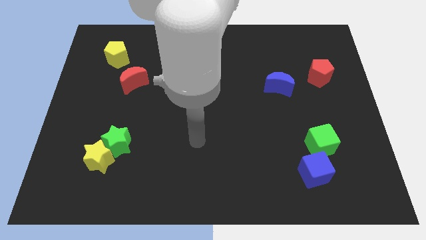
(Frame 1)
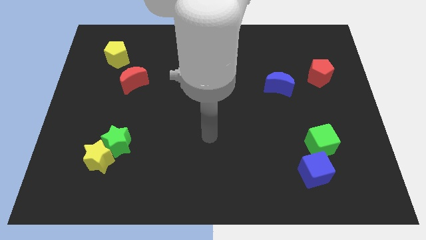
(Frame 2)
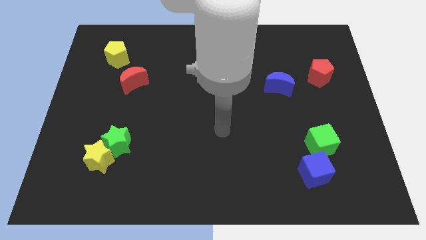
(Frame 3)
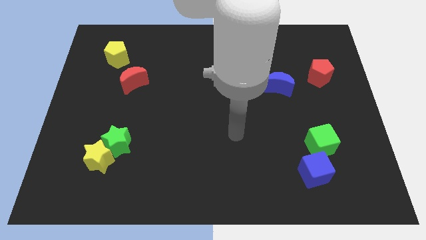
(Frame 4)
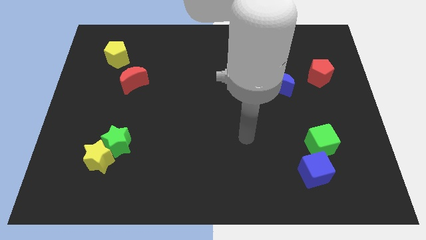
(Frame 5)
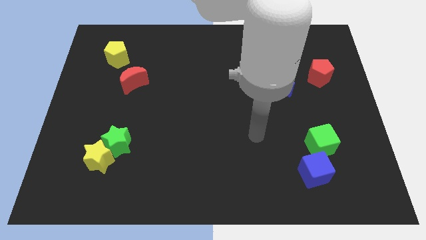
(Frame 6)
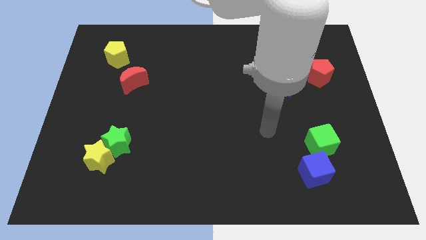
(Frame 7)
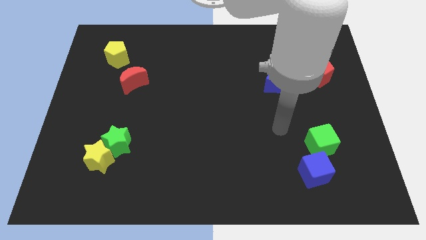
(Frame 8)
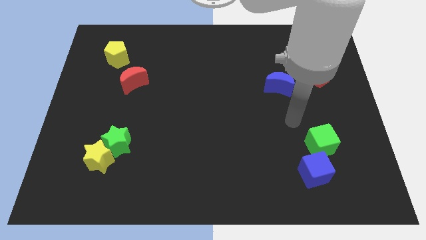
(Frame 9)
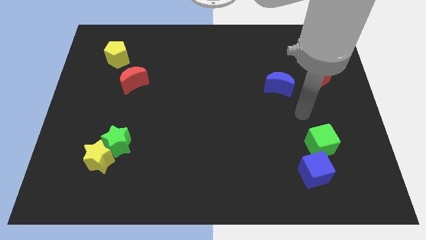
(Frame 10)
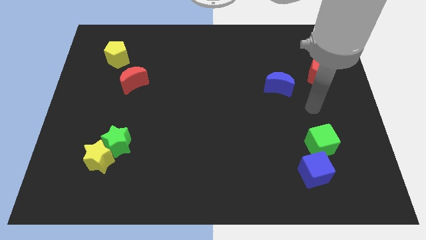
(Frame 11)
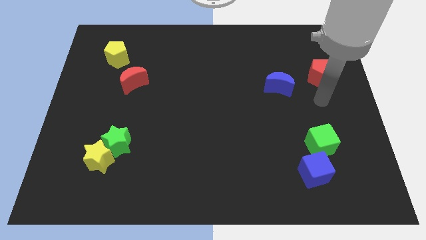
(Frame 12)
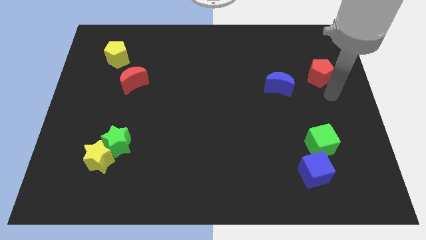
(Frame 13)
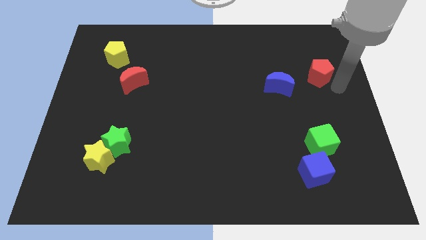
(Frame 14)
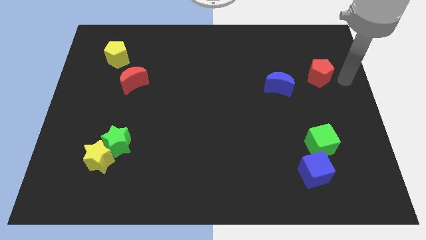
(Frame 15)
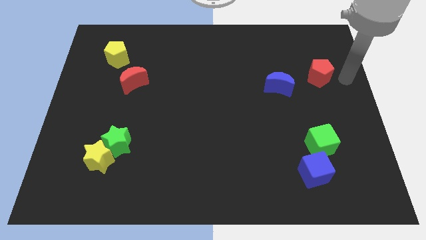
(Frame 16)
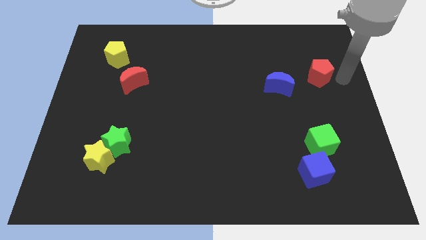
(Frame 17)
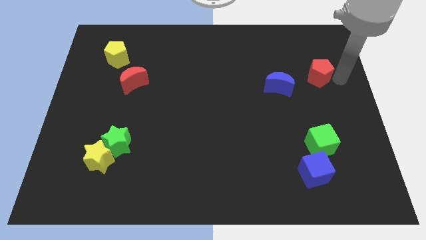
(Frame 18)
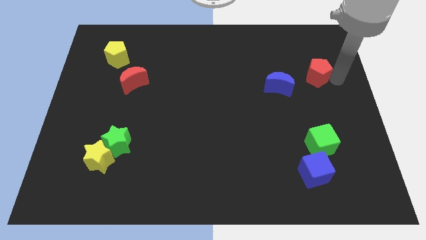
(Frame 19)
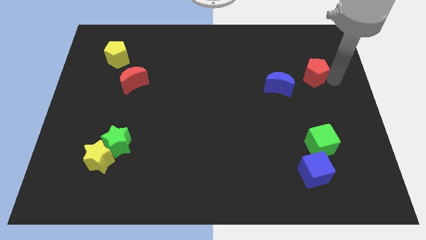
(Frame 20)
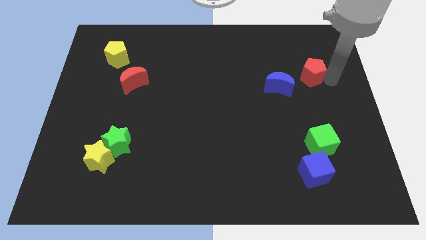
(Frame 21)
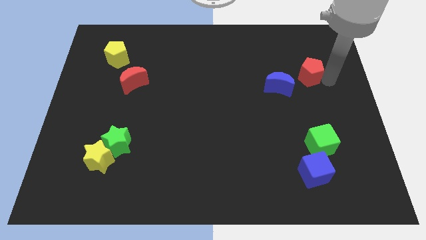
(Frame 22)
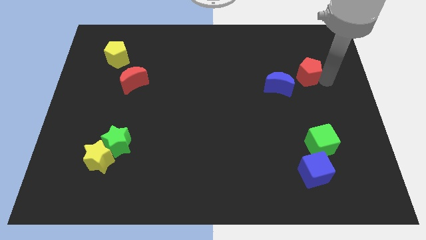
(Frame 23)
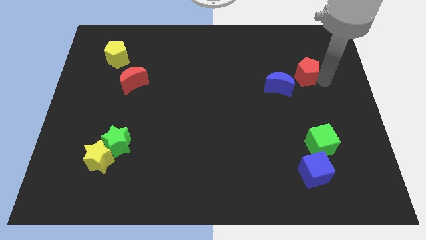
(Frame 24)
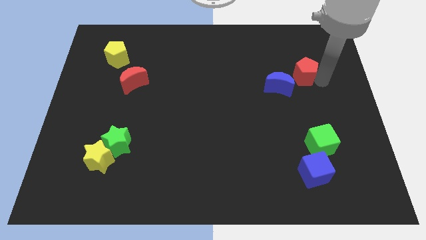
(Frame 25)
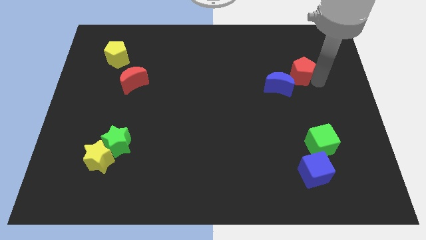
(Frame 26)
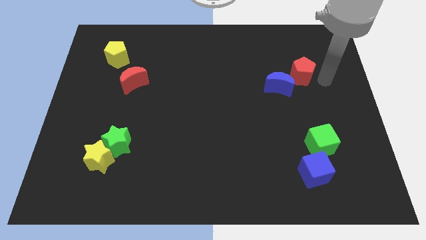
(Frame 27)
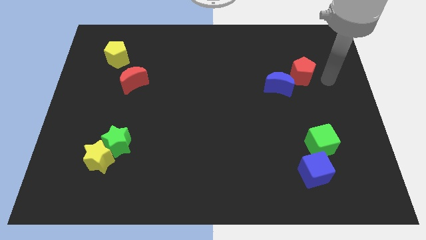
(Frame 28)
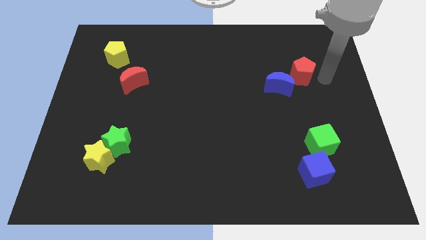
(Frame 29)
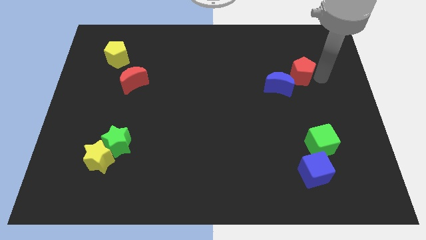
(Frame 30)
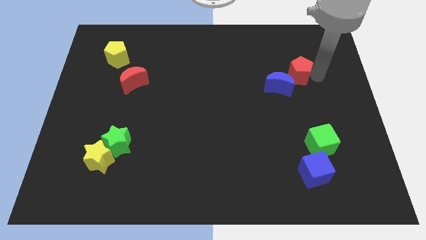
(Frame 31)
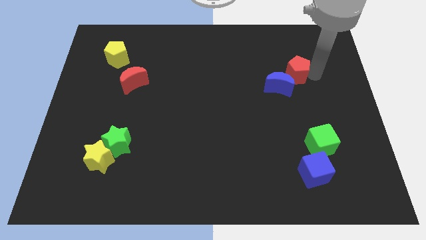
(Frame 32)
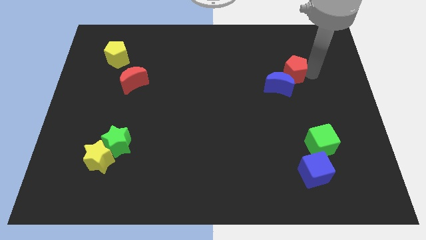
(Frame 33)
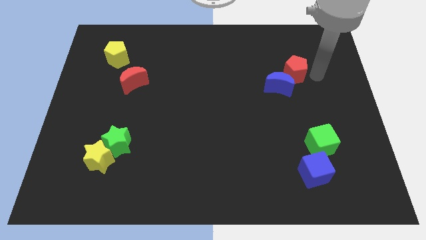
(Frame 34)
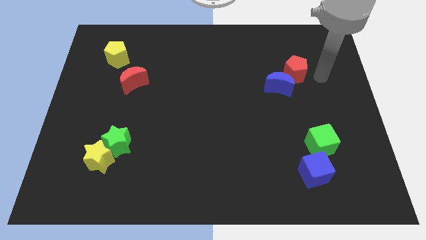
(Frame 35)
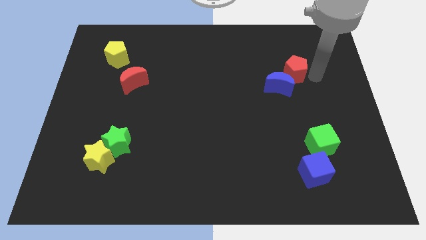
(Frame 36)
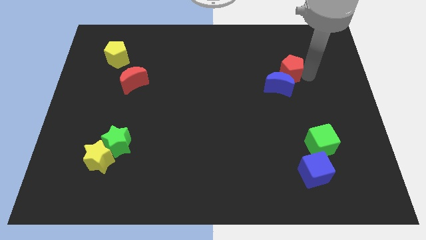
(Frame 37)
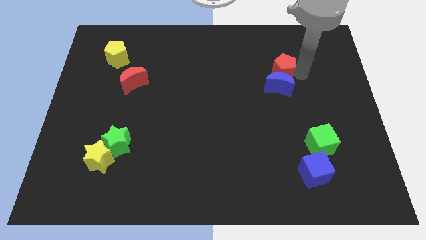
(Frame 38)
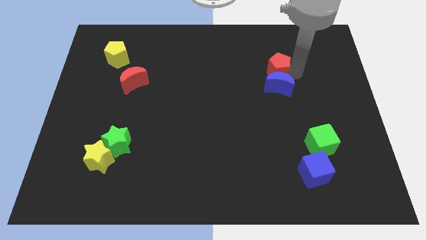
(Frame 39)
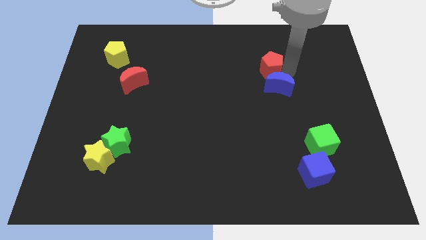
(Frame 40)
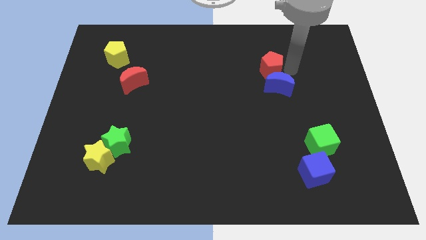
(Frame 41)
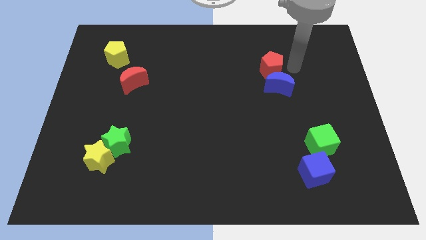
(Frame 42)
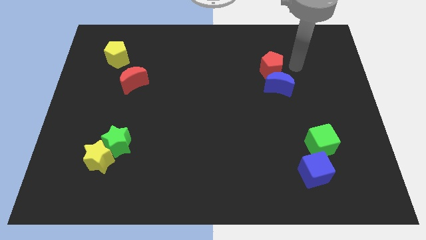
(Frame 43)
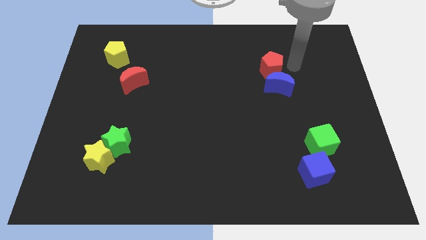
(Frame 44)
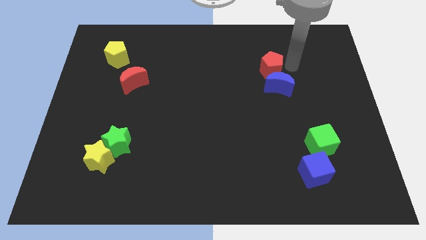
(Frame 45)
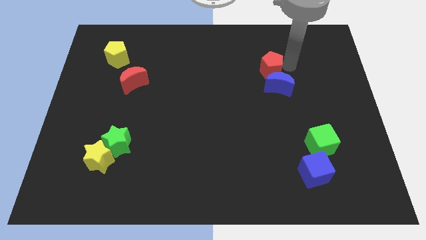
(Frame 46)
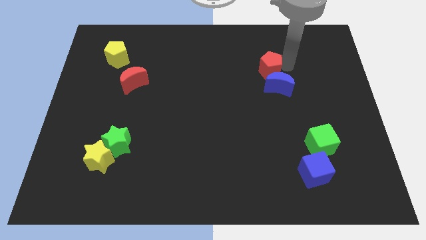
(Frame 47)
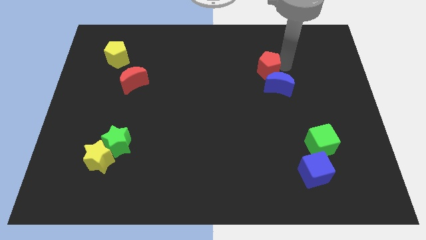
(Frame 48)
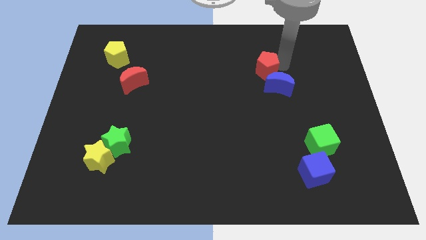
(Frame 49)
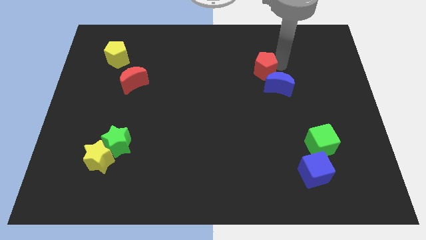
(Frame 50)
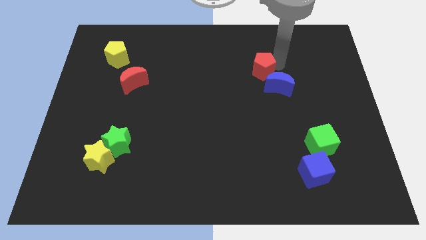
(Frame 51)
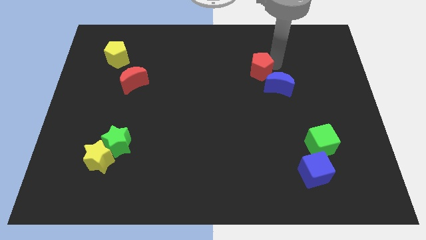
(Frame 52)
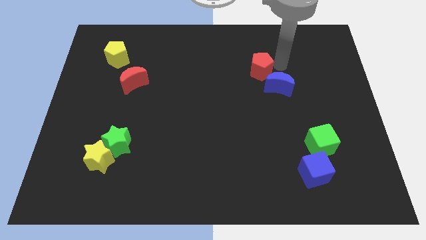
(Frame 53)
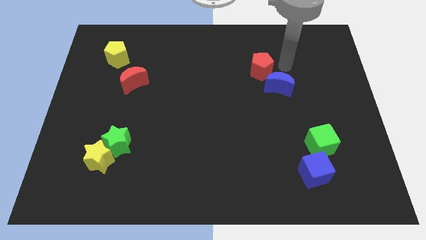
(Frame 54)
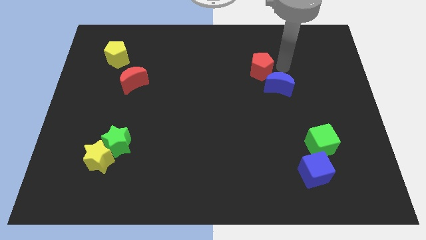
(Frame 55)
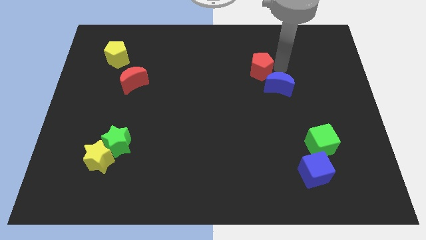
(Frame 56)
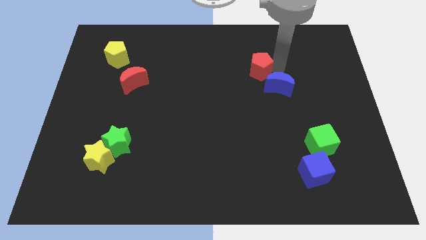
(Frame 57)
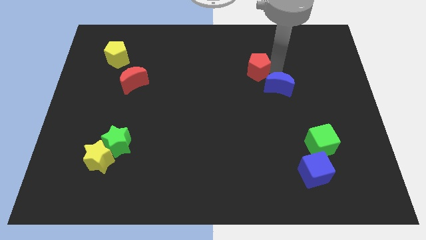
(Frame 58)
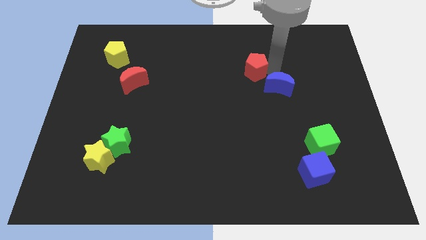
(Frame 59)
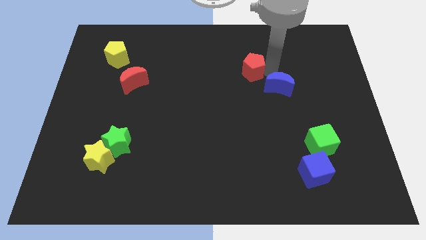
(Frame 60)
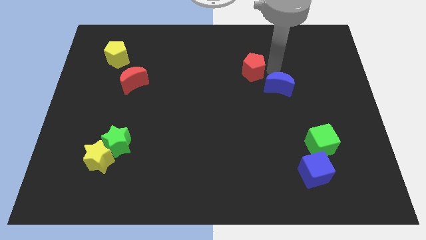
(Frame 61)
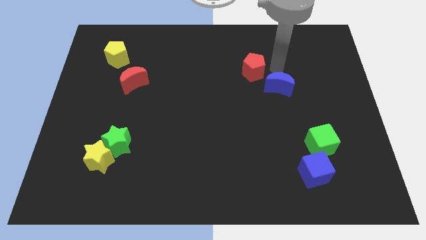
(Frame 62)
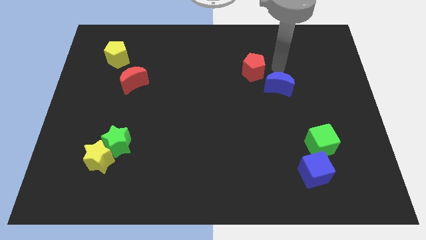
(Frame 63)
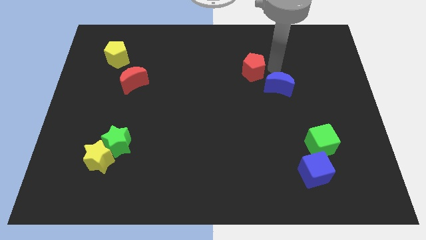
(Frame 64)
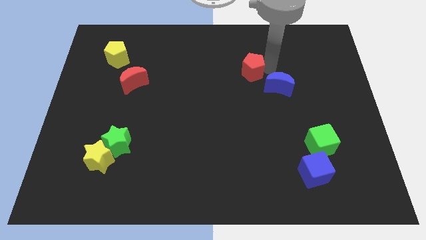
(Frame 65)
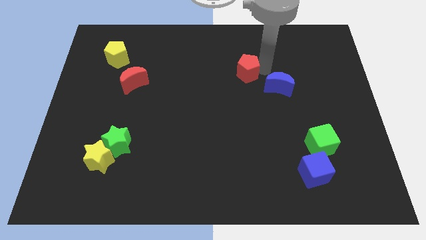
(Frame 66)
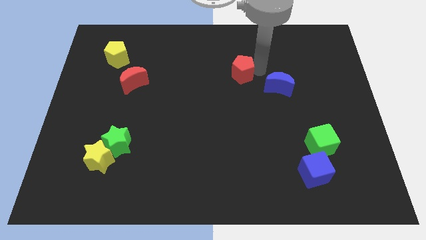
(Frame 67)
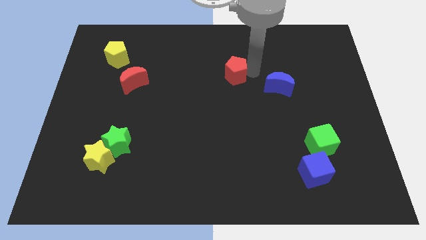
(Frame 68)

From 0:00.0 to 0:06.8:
push the red pentagon left

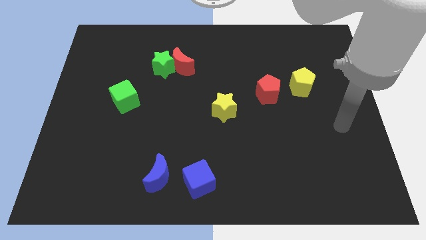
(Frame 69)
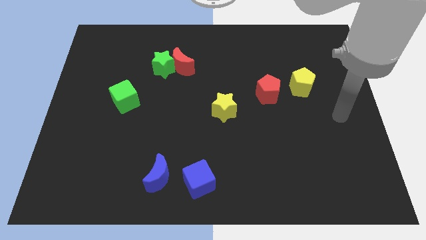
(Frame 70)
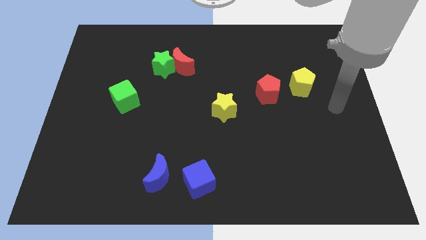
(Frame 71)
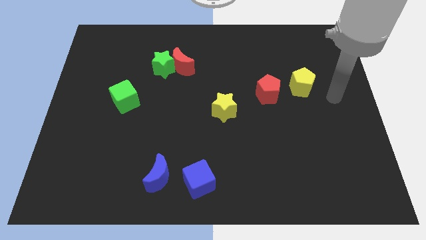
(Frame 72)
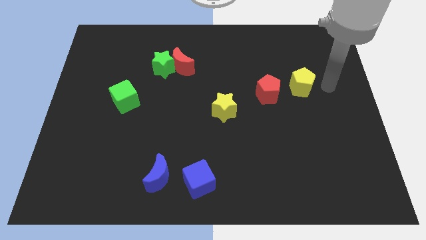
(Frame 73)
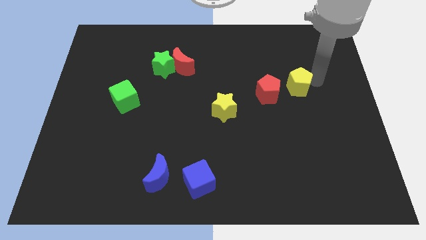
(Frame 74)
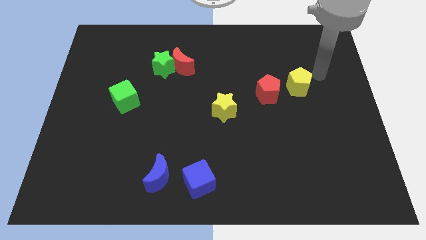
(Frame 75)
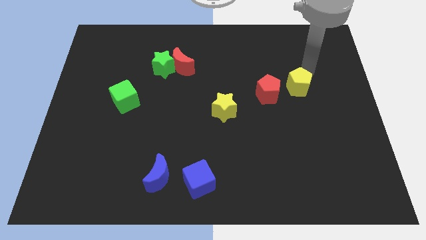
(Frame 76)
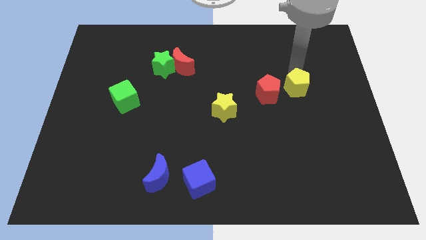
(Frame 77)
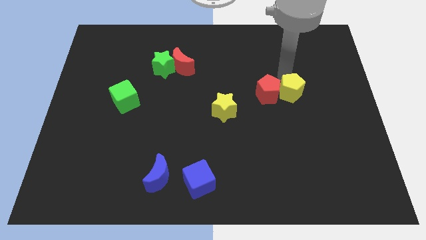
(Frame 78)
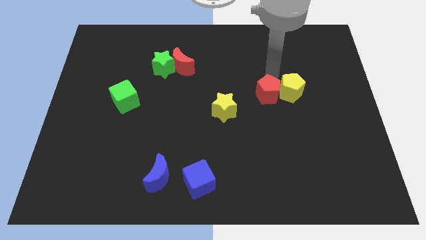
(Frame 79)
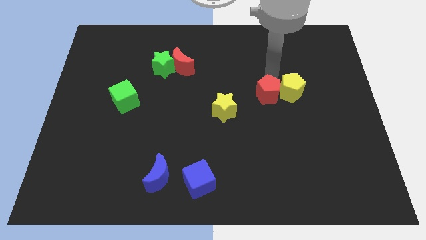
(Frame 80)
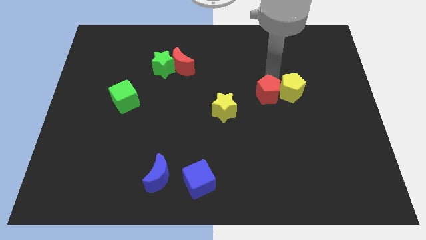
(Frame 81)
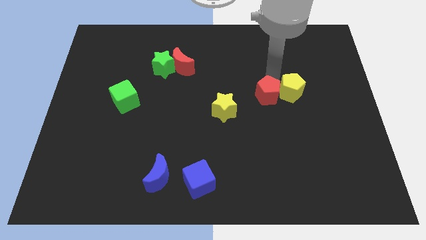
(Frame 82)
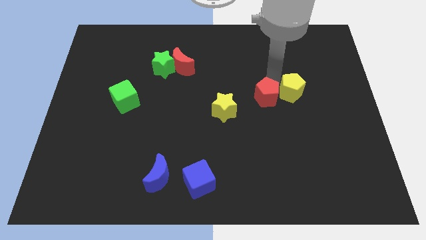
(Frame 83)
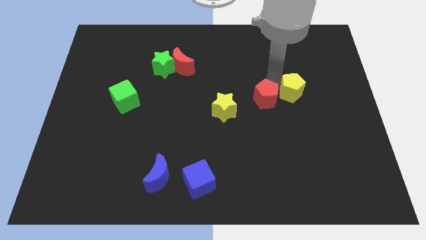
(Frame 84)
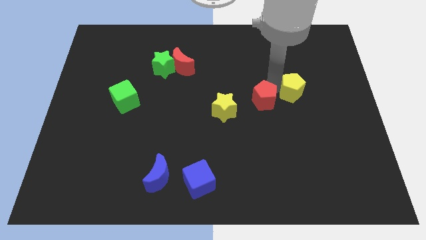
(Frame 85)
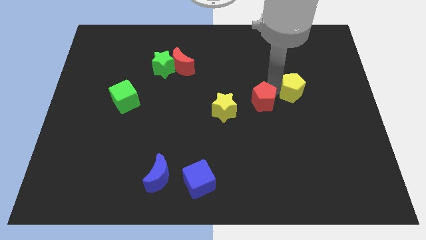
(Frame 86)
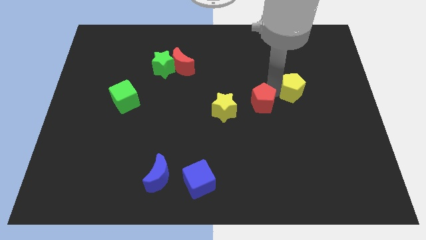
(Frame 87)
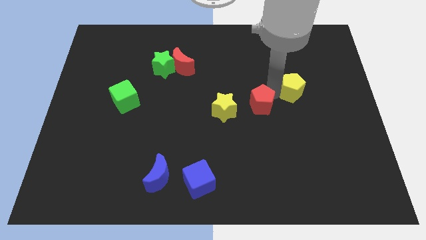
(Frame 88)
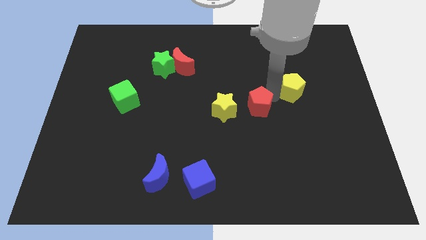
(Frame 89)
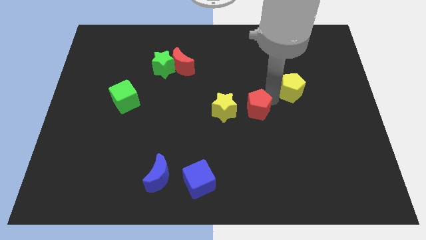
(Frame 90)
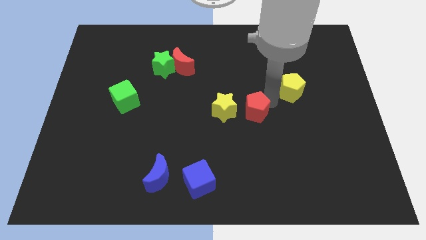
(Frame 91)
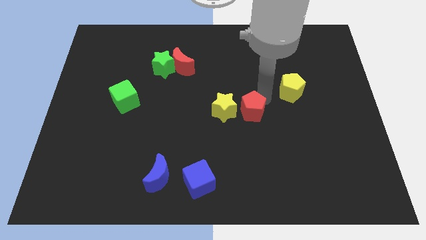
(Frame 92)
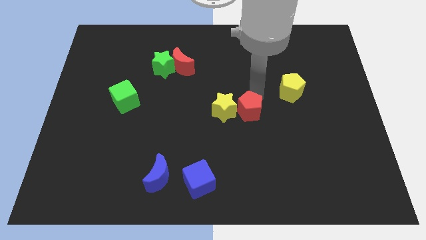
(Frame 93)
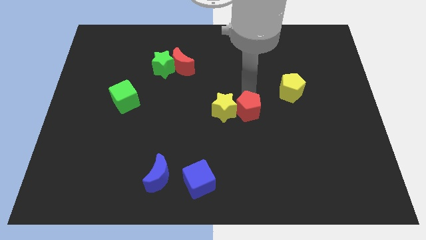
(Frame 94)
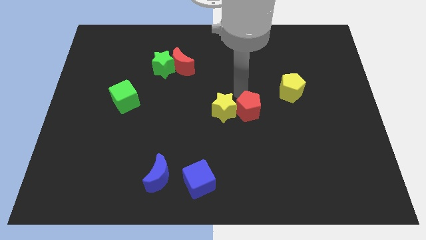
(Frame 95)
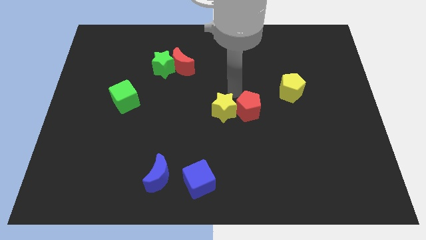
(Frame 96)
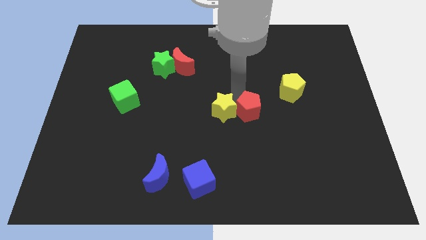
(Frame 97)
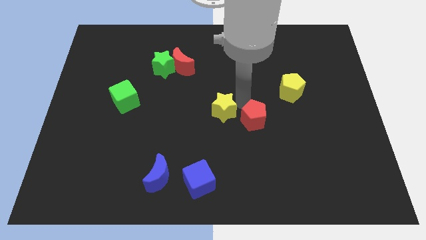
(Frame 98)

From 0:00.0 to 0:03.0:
slightly push the red pentagon down
